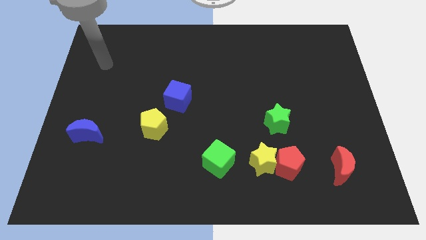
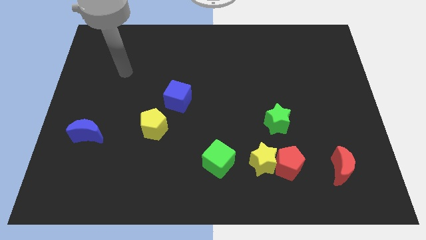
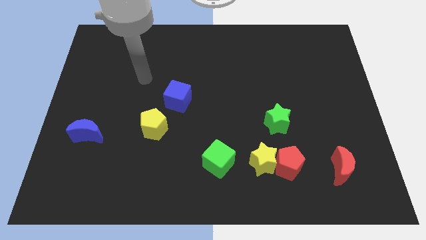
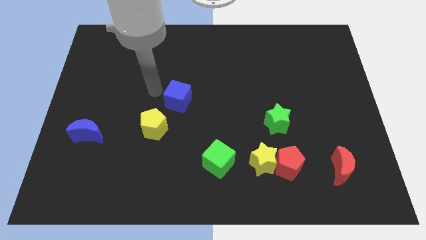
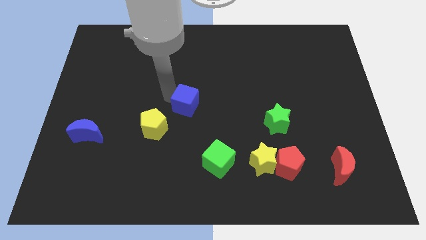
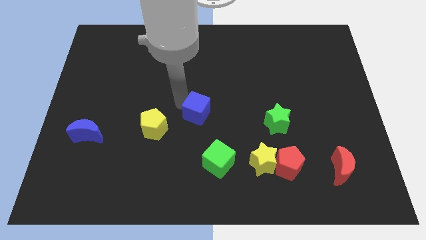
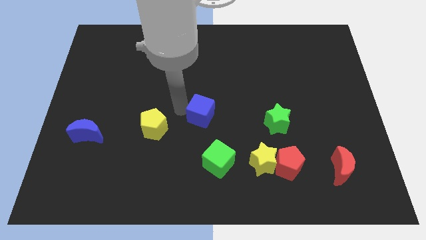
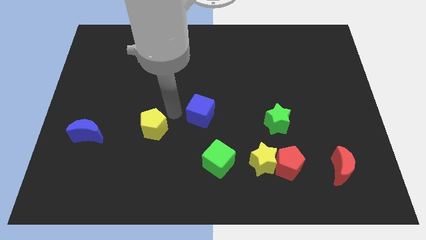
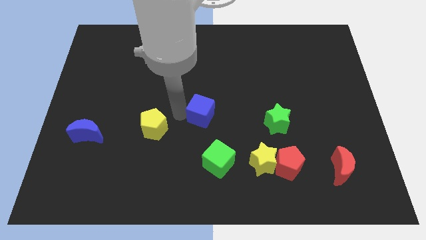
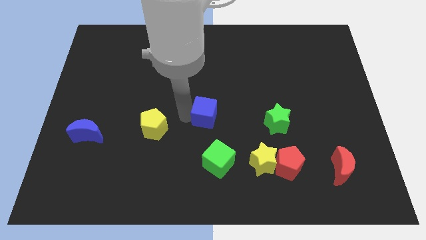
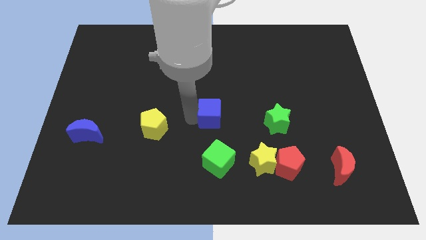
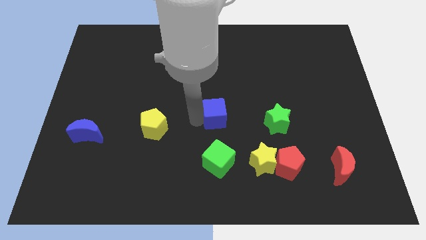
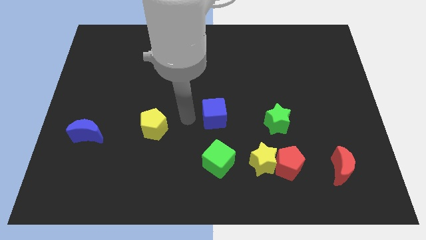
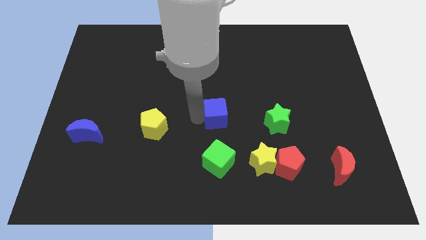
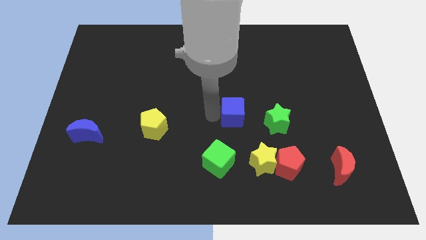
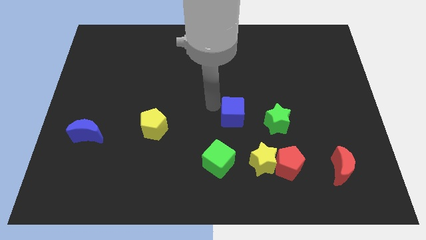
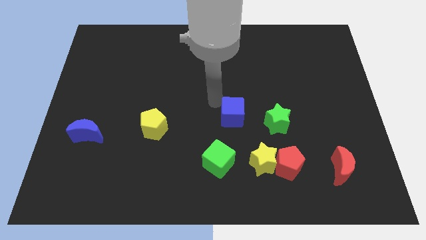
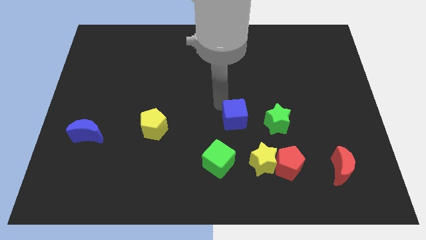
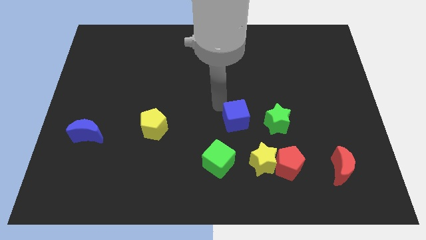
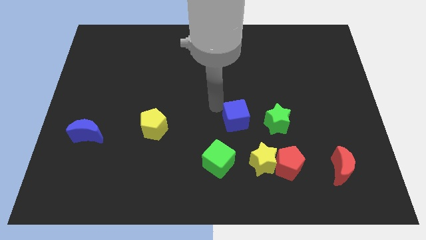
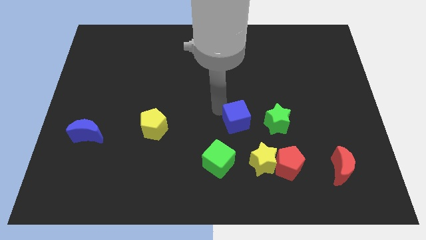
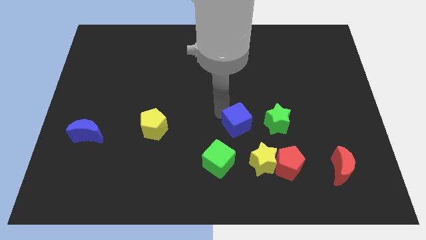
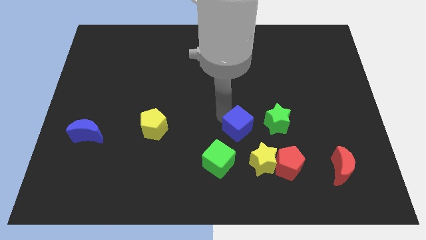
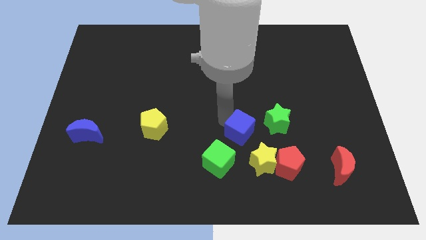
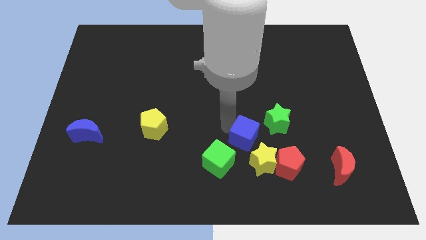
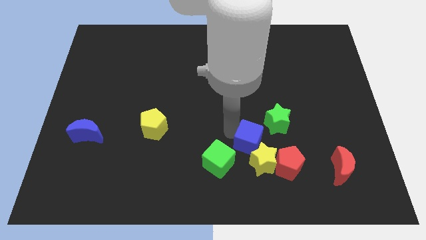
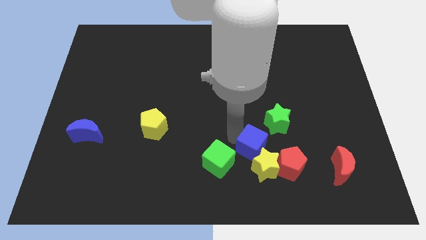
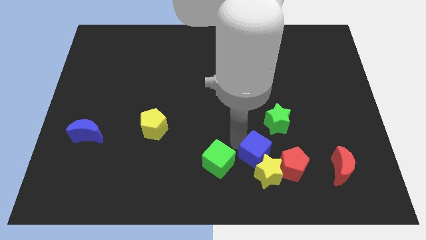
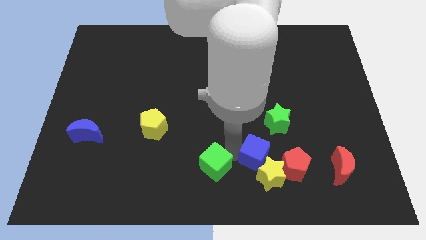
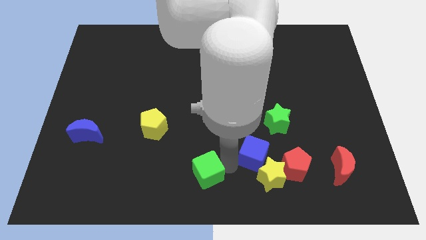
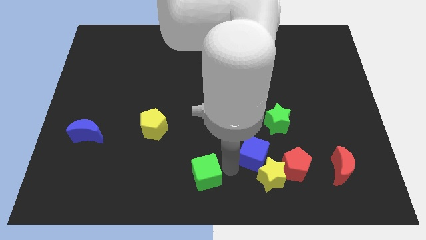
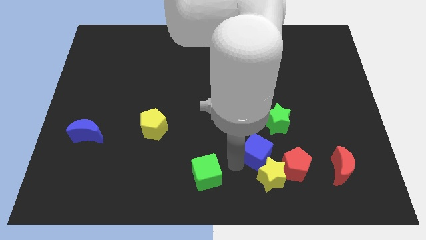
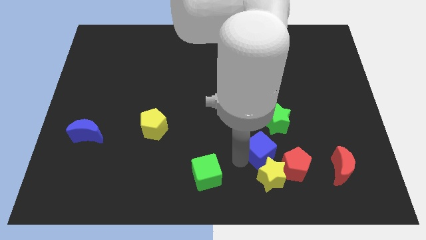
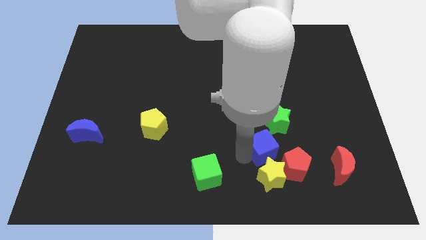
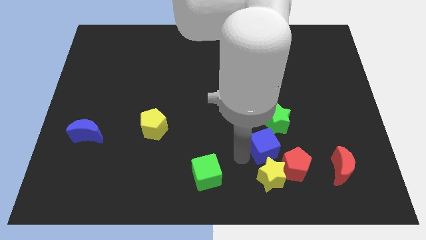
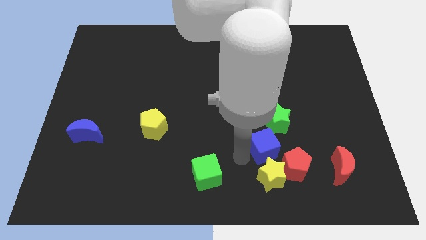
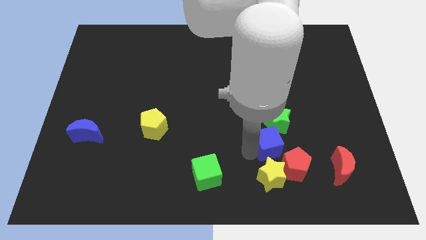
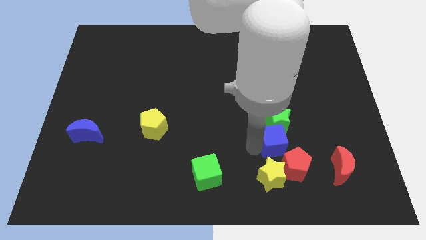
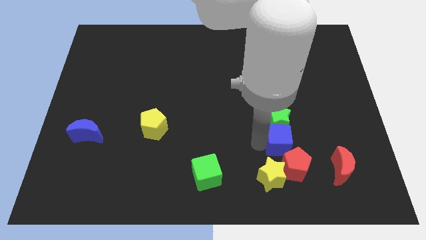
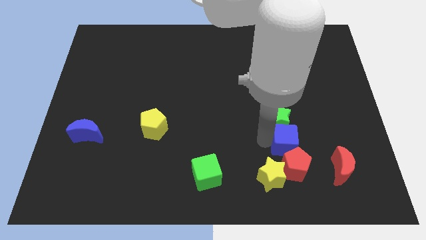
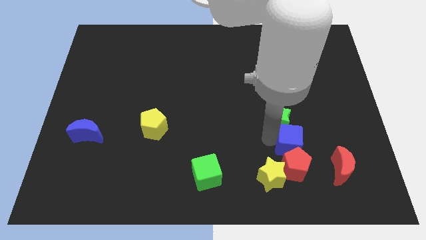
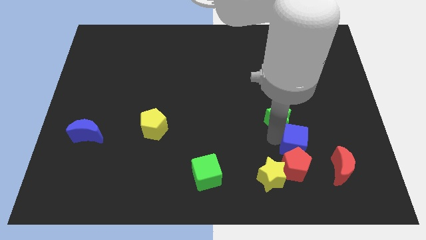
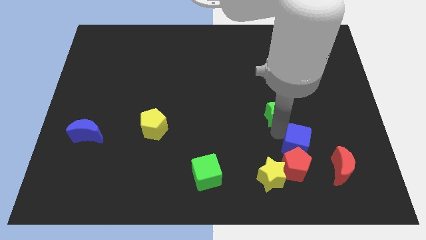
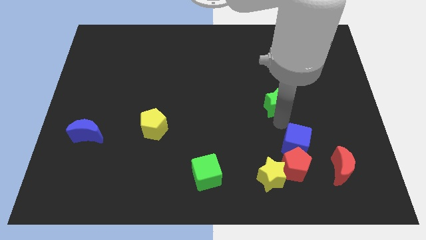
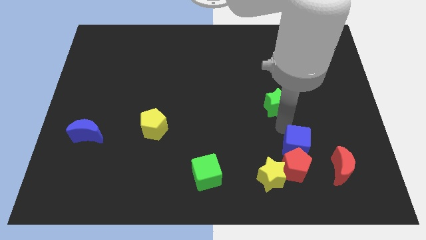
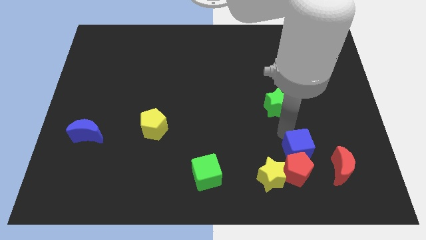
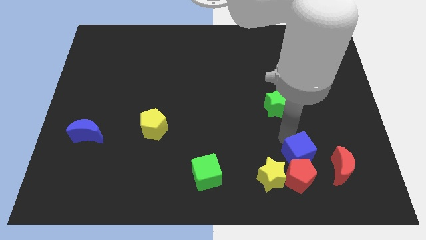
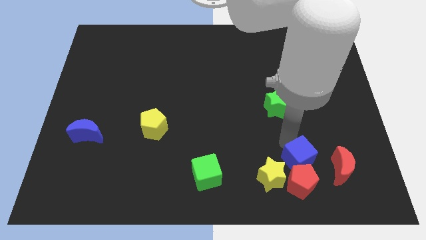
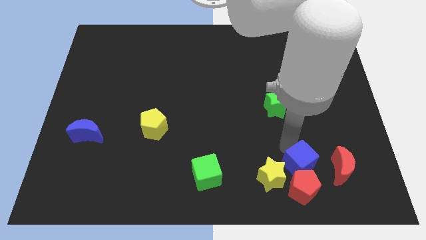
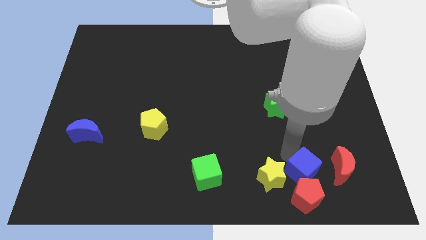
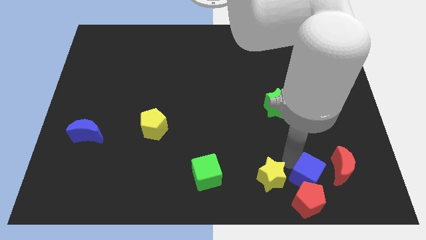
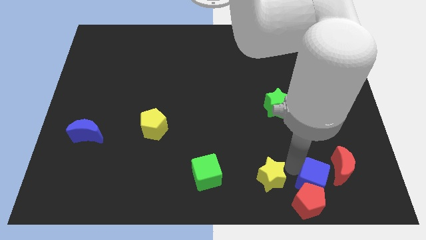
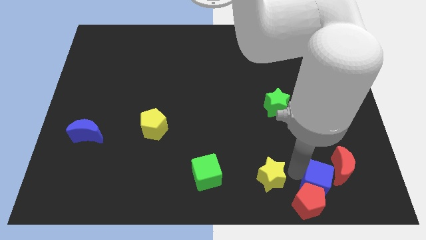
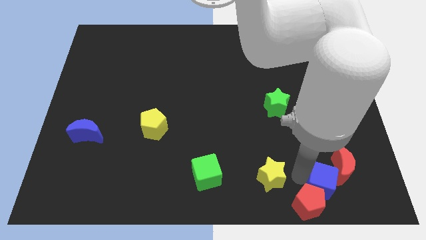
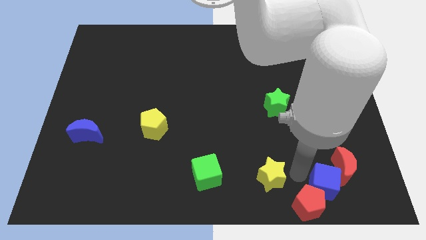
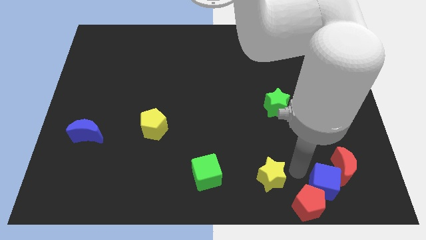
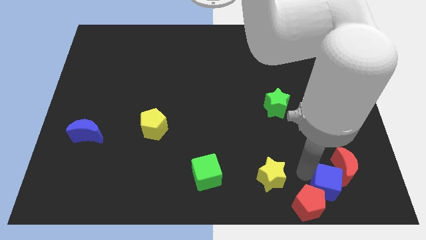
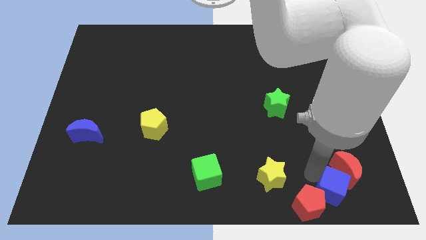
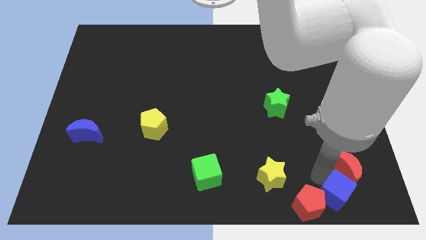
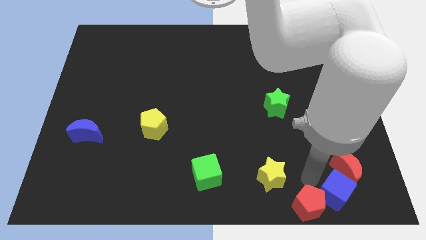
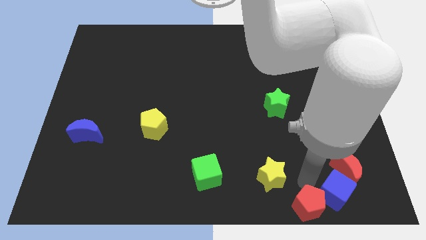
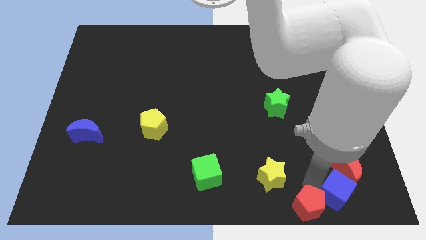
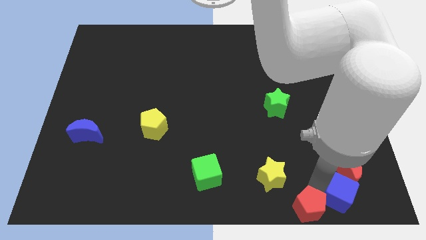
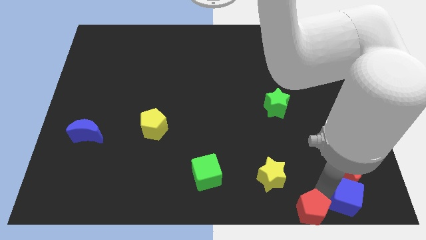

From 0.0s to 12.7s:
slide the blue cube to the lower right corner
